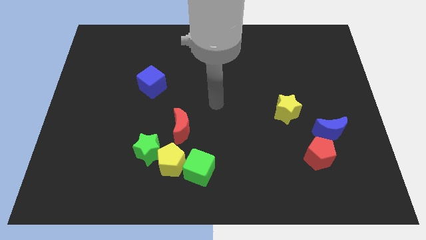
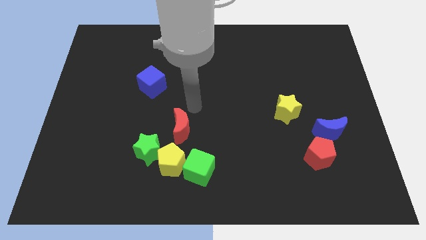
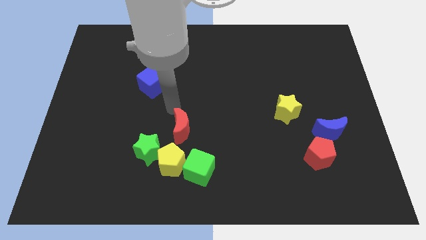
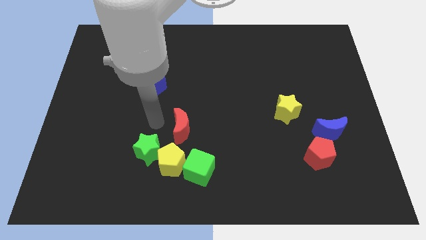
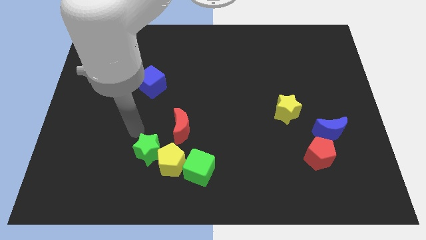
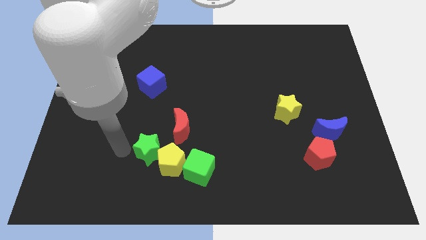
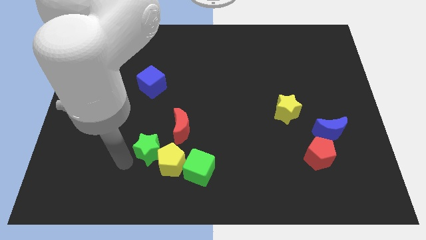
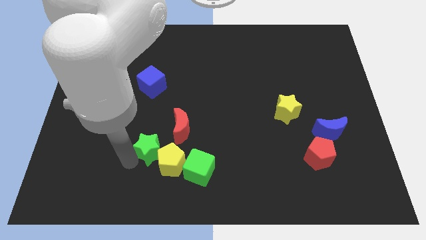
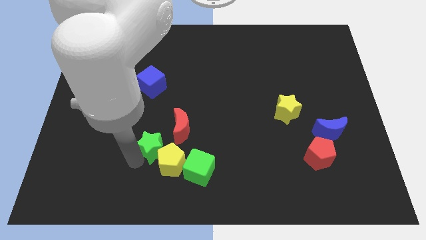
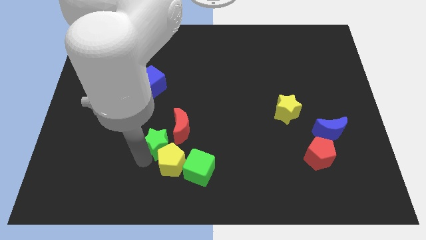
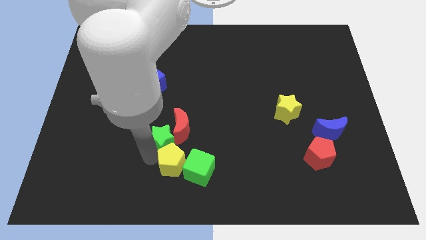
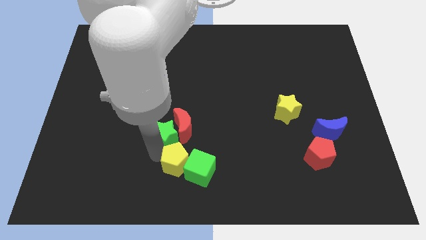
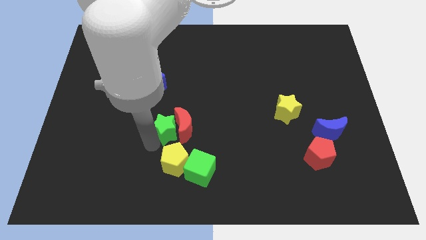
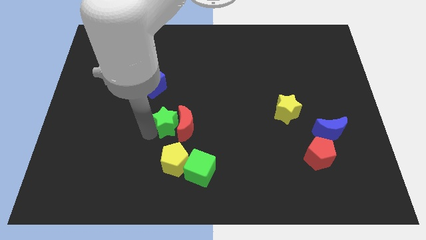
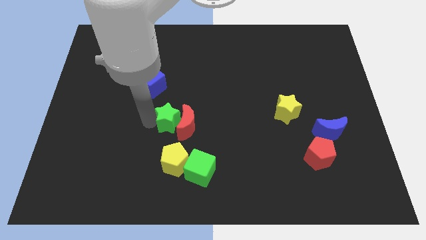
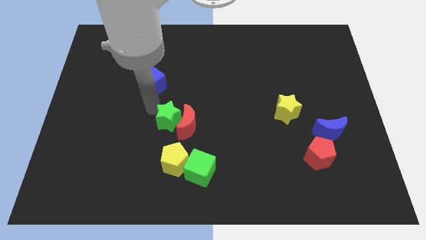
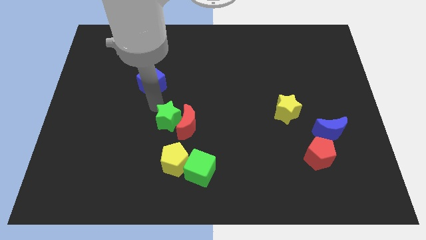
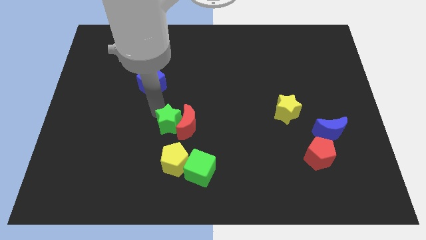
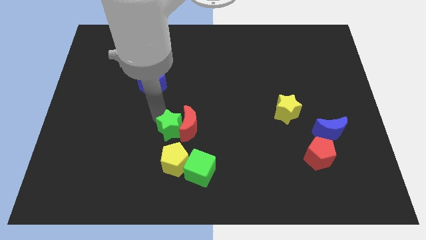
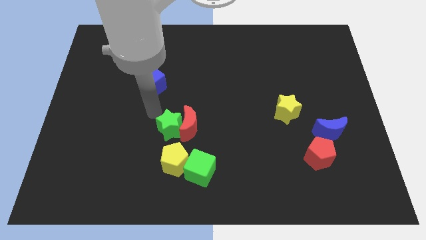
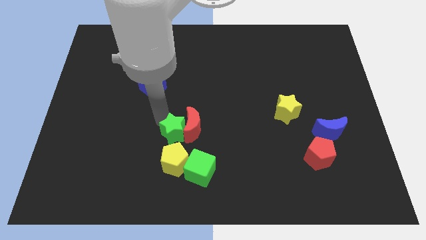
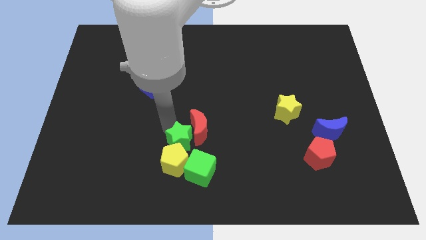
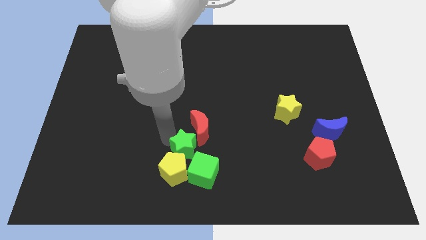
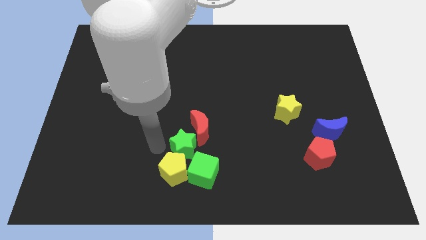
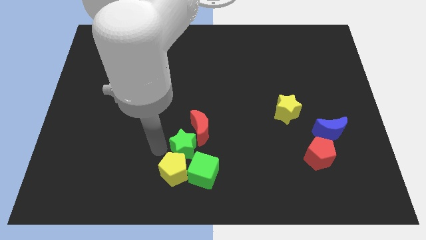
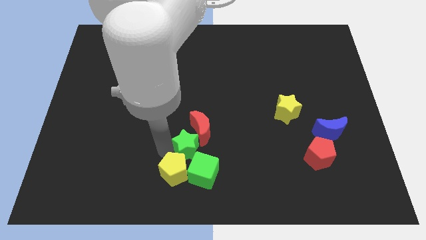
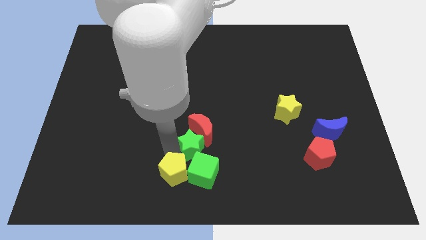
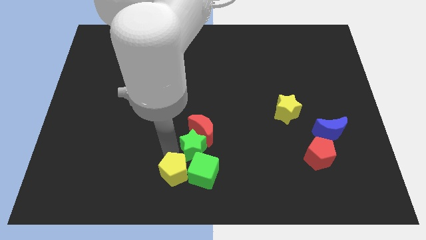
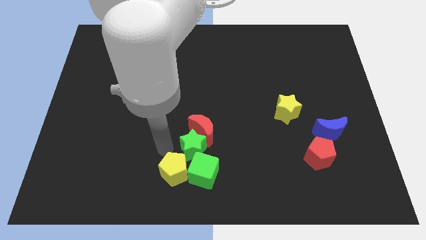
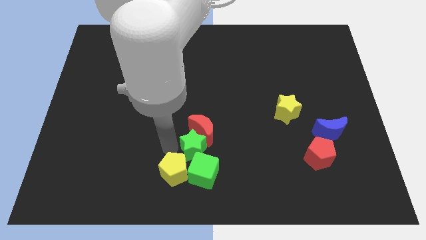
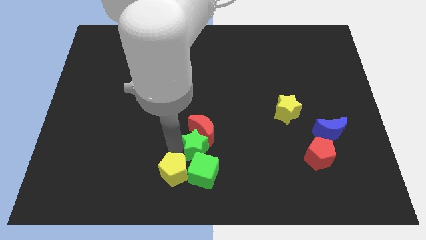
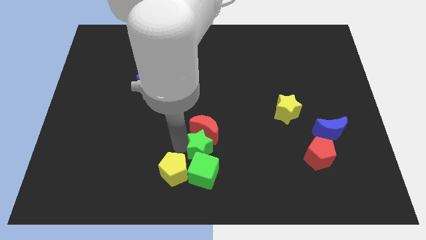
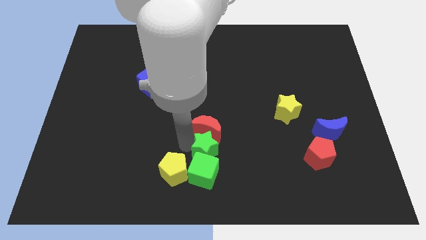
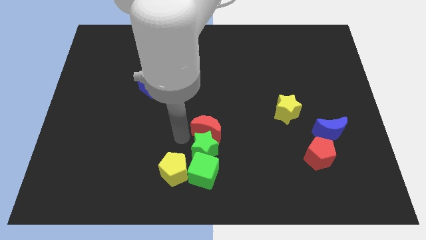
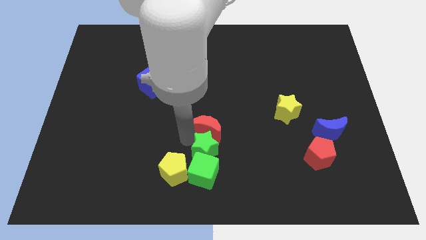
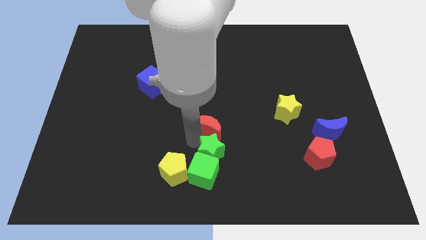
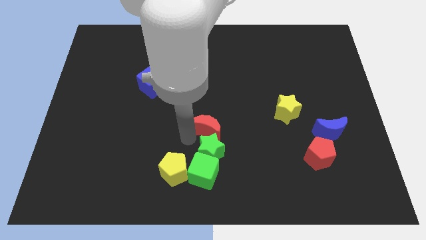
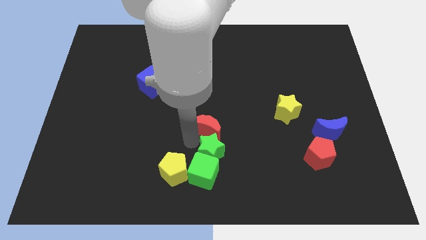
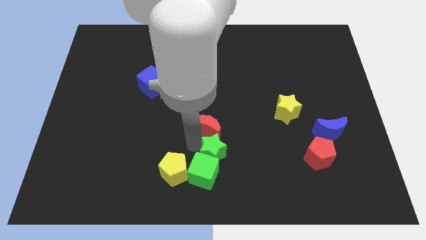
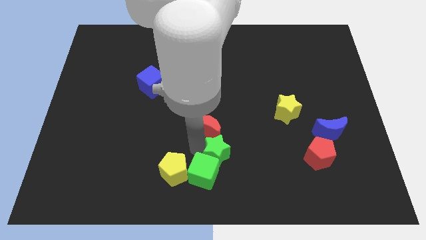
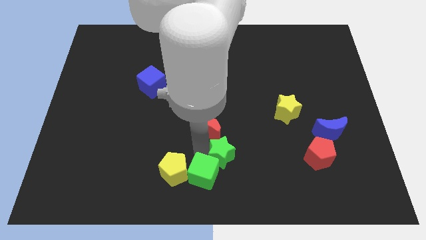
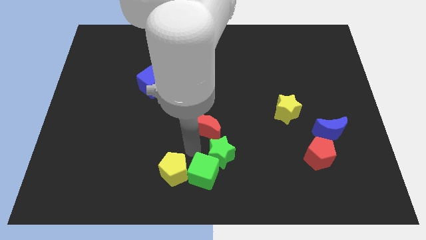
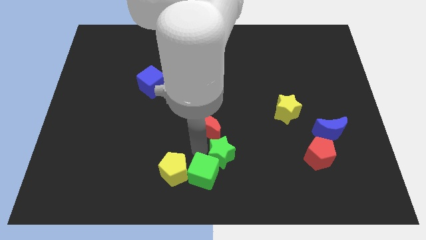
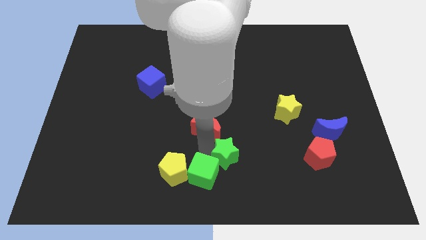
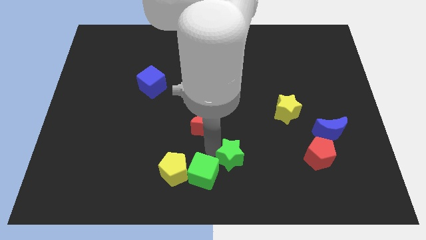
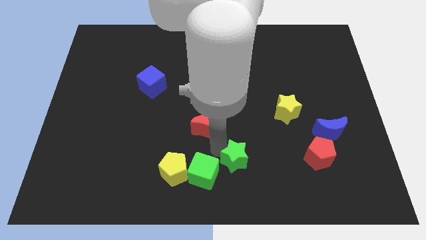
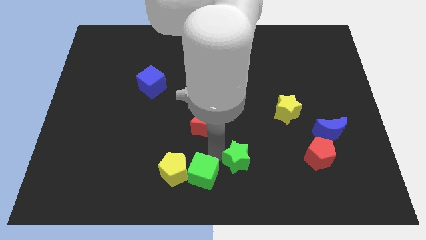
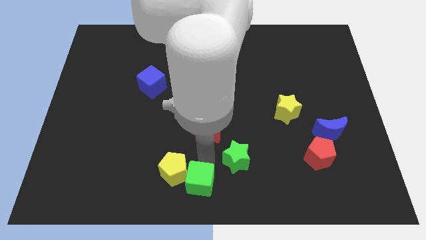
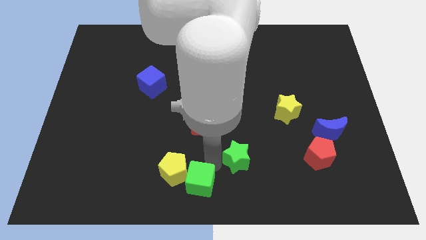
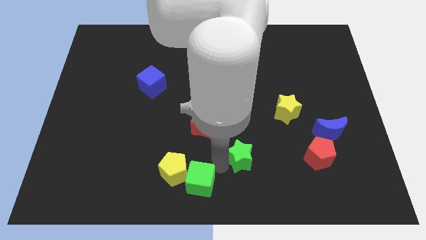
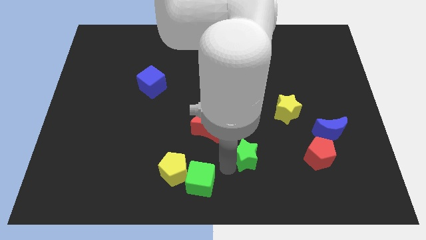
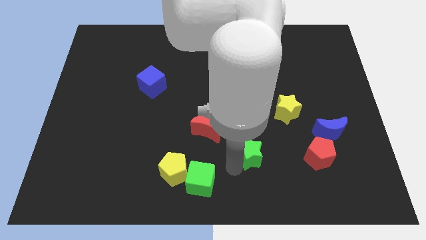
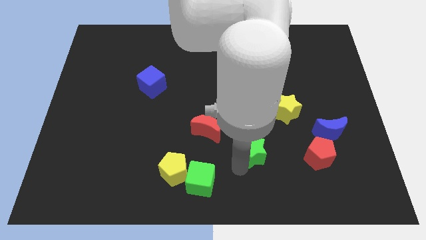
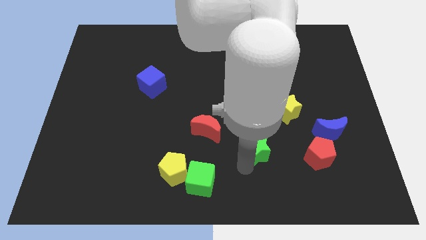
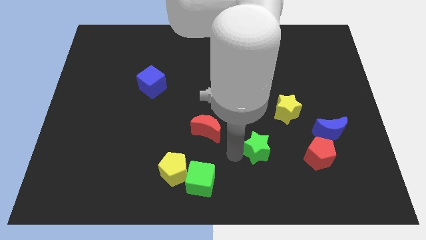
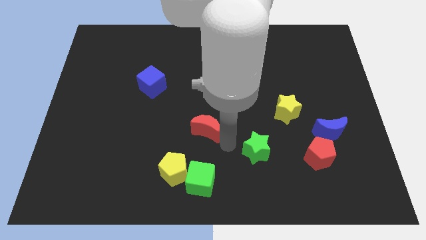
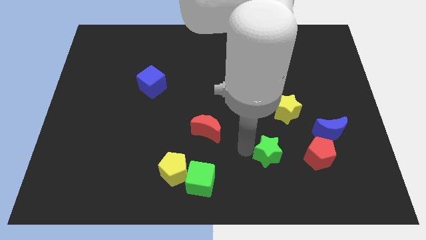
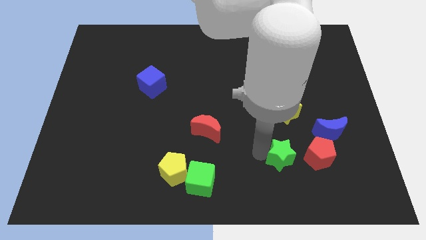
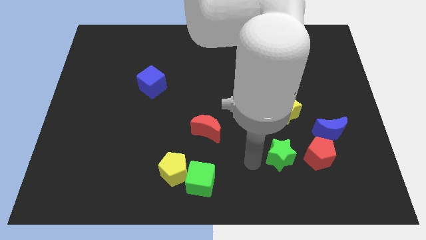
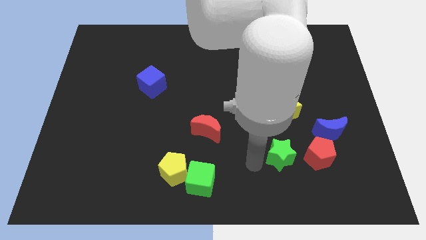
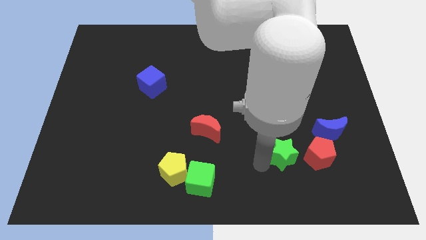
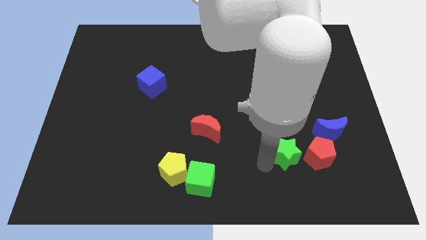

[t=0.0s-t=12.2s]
slide the green star to the bottom left side of the blue moon

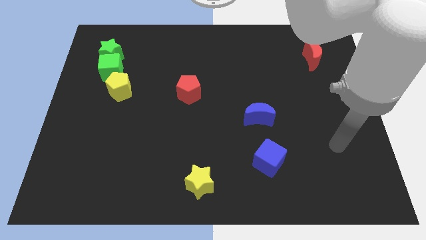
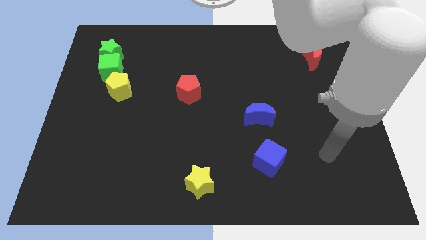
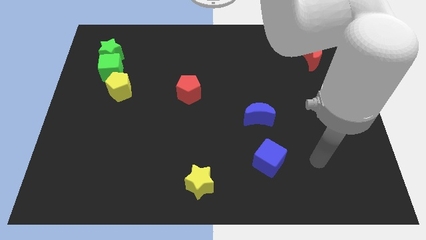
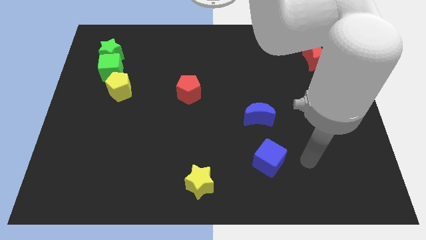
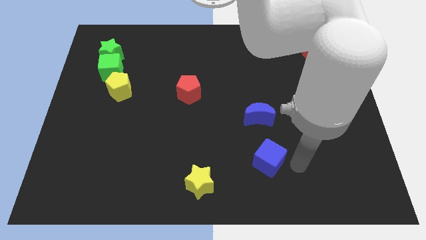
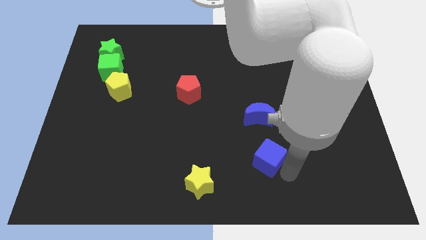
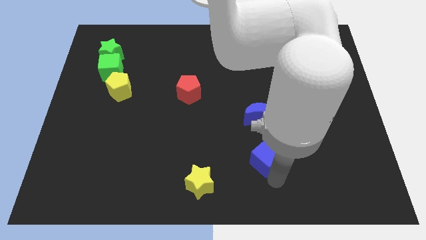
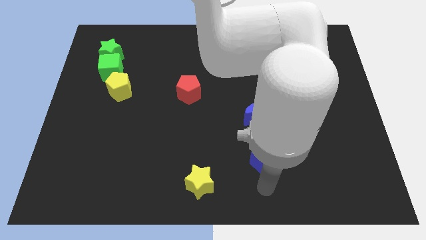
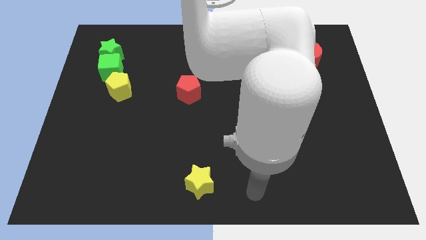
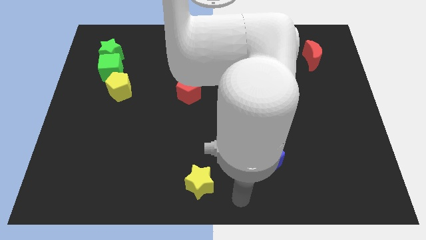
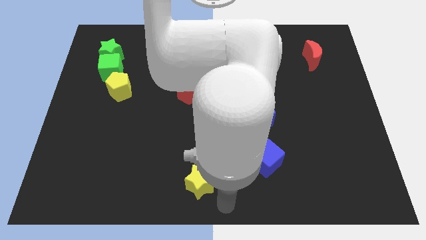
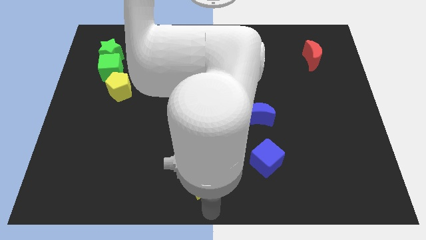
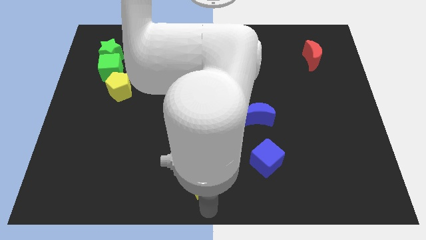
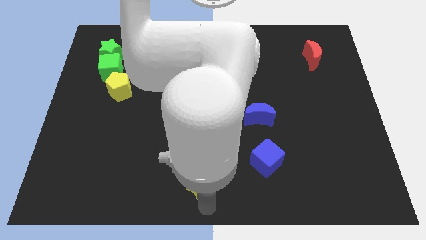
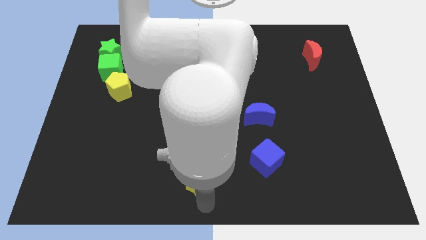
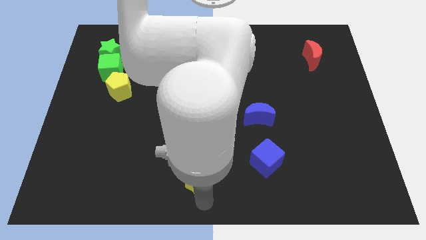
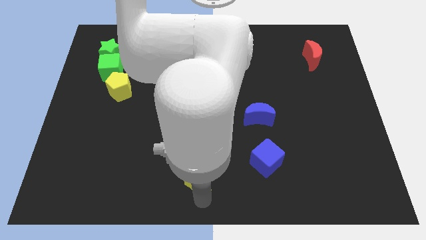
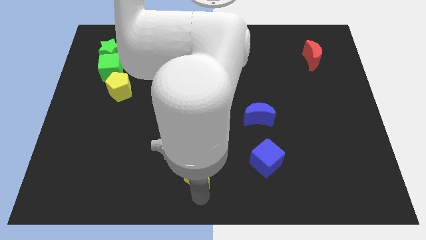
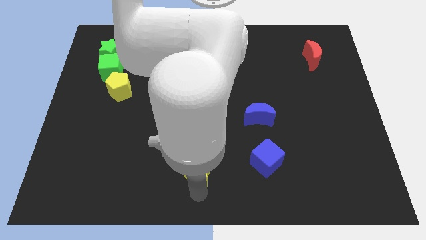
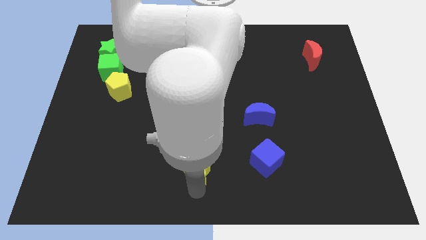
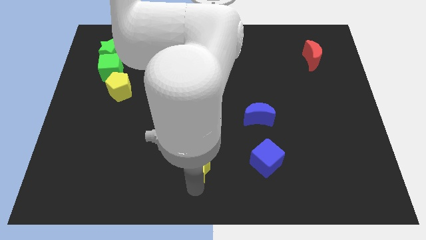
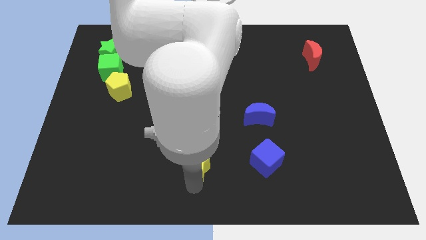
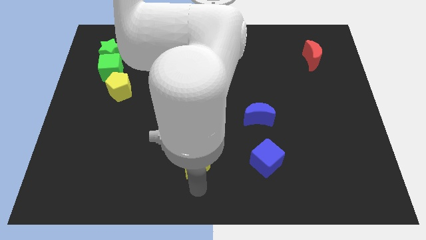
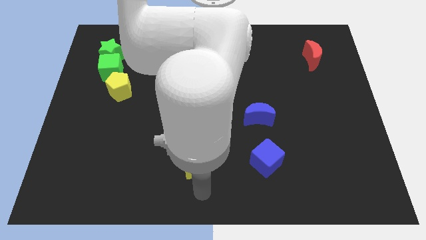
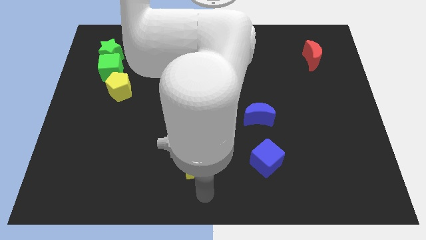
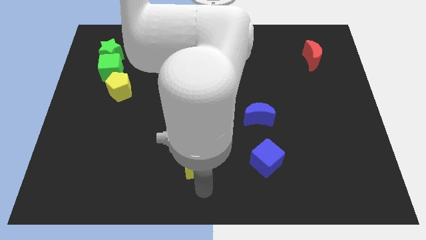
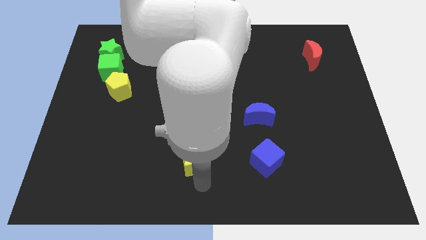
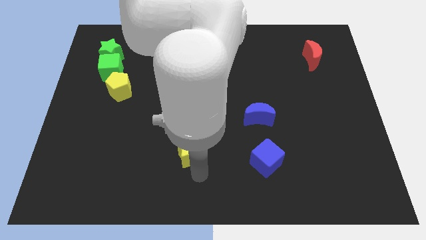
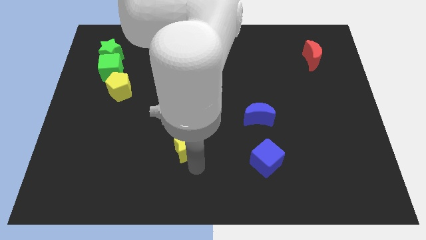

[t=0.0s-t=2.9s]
move the yellow star to the bottom of the red pentagon
